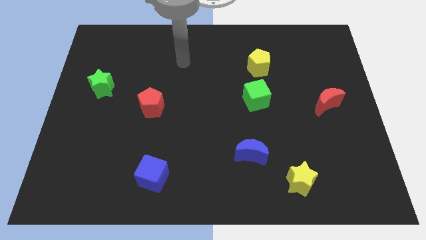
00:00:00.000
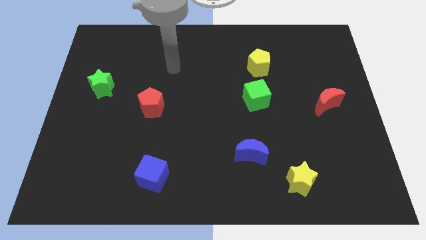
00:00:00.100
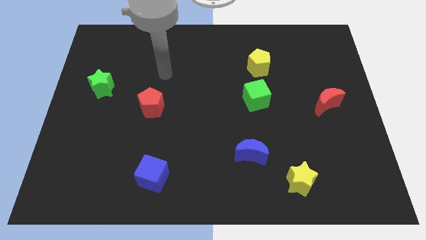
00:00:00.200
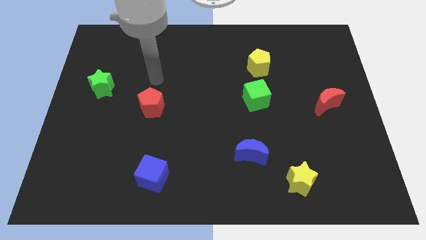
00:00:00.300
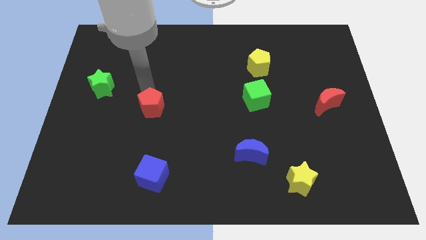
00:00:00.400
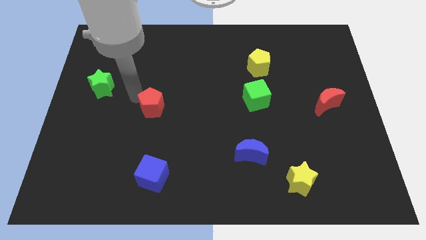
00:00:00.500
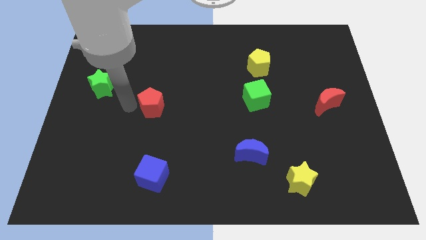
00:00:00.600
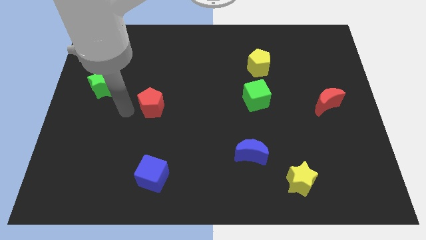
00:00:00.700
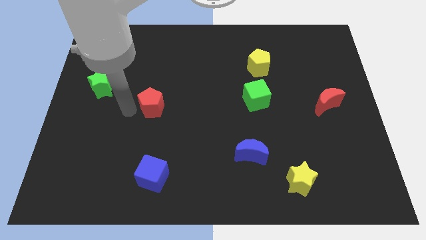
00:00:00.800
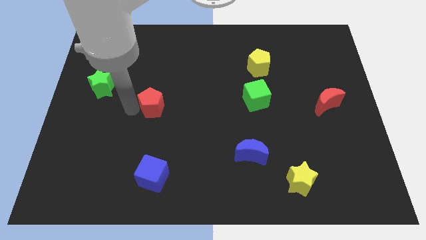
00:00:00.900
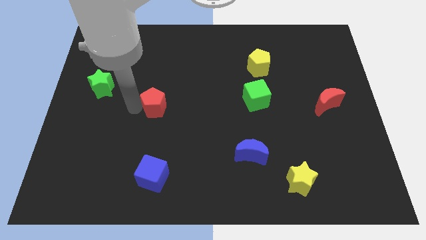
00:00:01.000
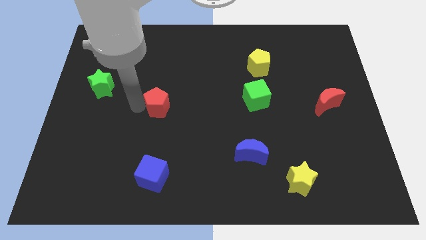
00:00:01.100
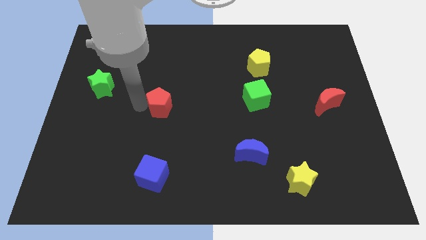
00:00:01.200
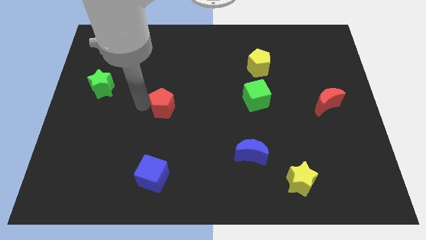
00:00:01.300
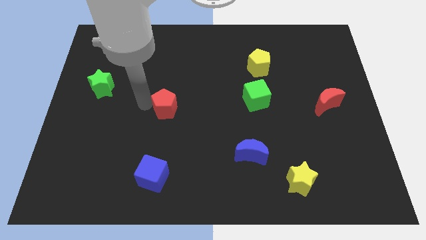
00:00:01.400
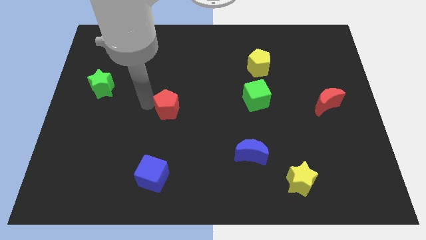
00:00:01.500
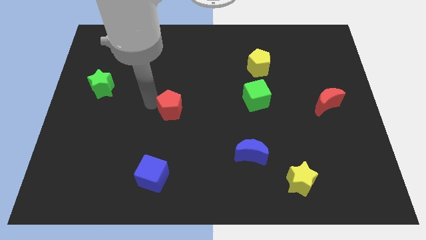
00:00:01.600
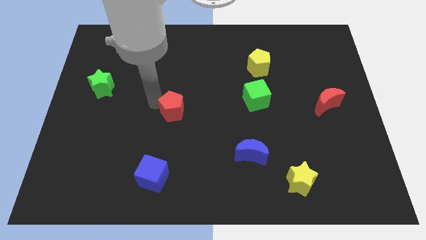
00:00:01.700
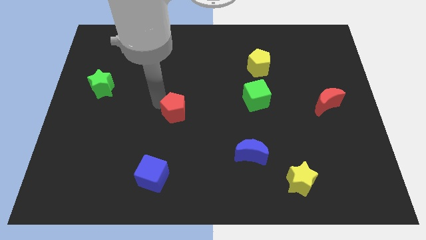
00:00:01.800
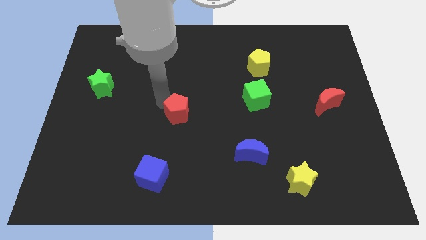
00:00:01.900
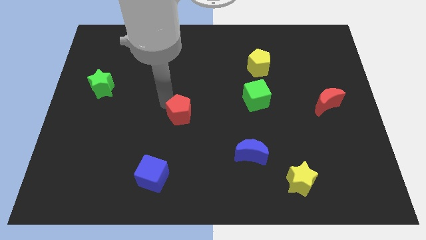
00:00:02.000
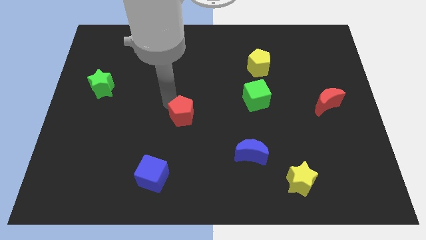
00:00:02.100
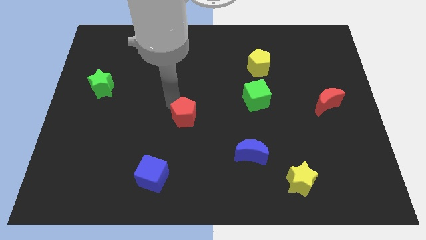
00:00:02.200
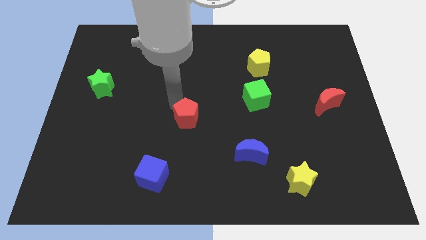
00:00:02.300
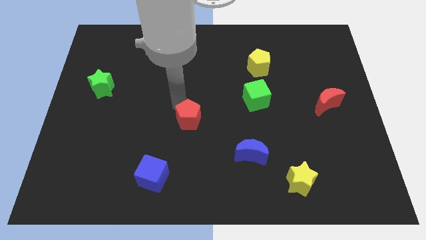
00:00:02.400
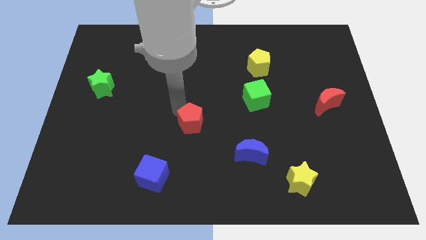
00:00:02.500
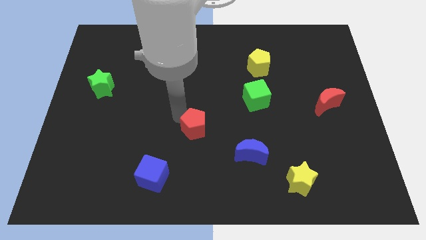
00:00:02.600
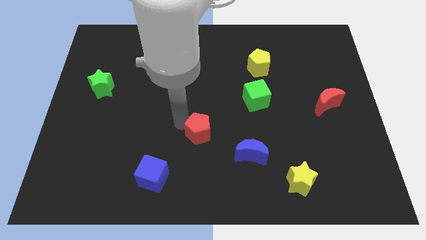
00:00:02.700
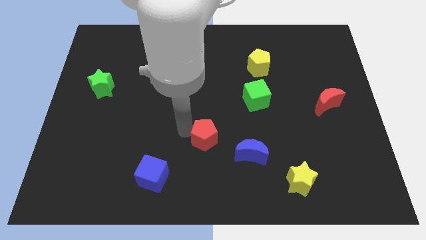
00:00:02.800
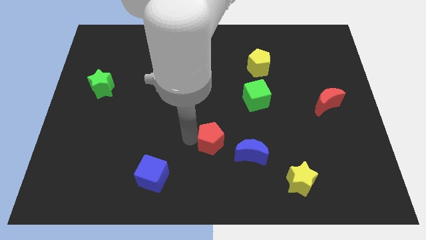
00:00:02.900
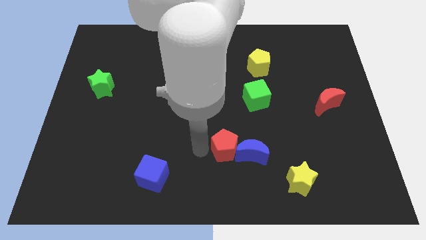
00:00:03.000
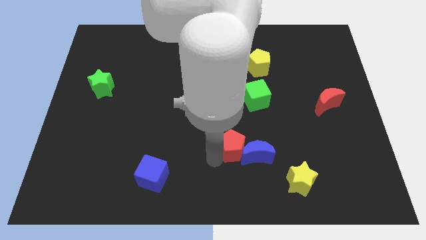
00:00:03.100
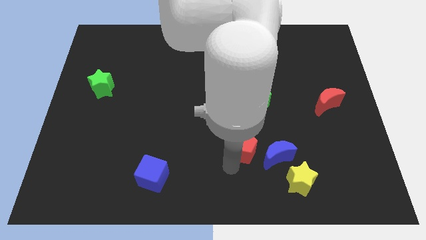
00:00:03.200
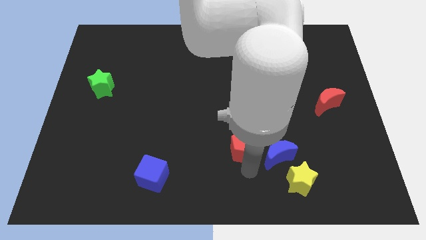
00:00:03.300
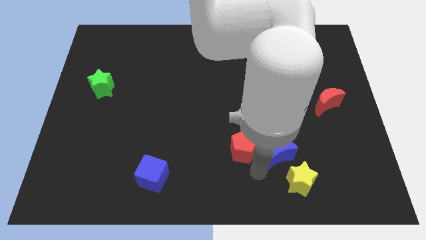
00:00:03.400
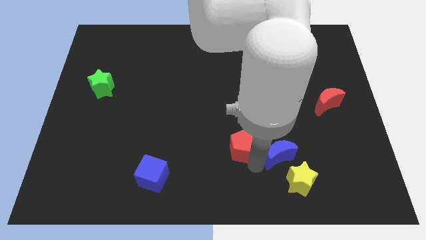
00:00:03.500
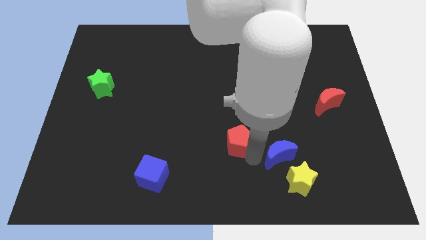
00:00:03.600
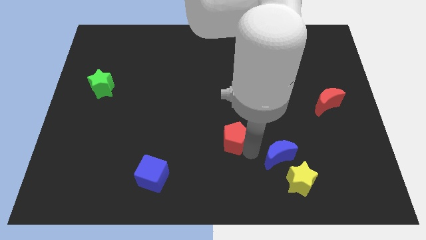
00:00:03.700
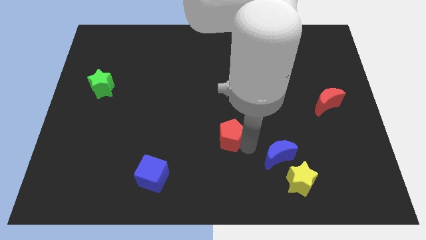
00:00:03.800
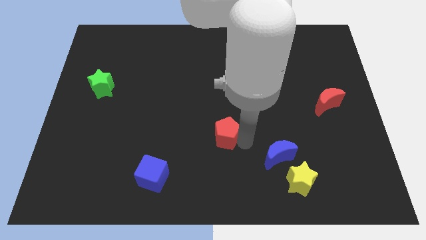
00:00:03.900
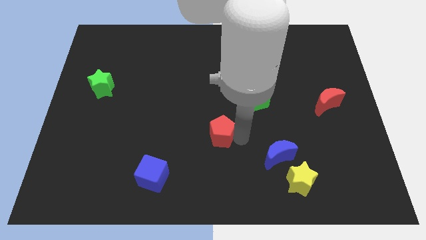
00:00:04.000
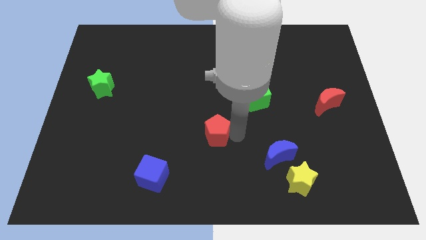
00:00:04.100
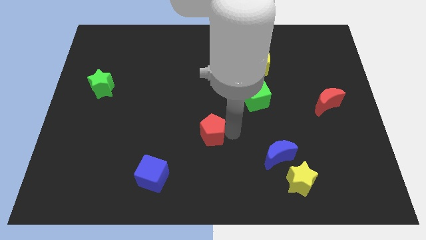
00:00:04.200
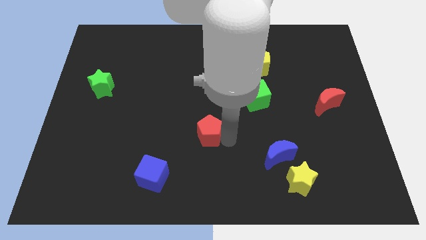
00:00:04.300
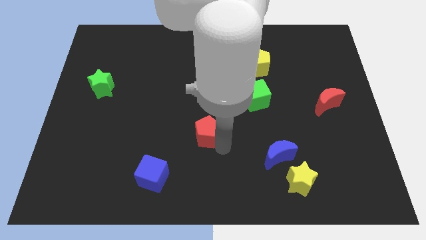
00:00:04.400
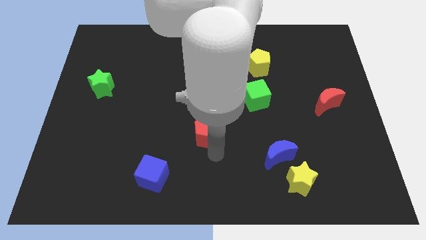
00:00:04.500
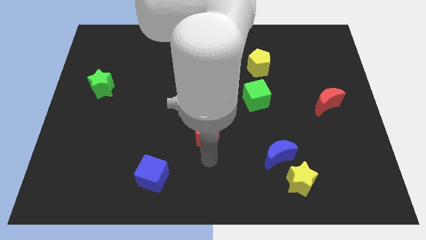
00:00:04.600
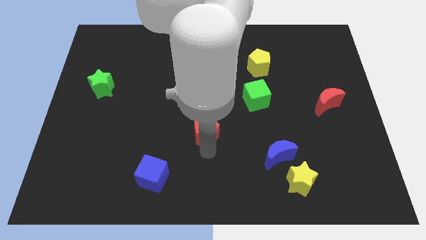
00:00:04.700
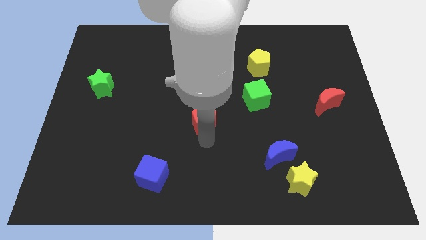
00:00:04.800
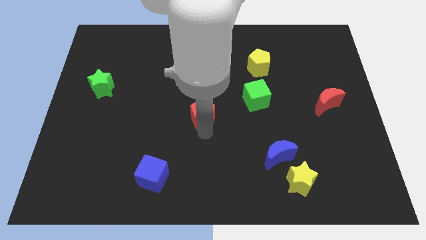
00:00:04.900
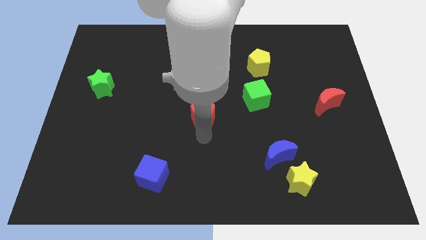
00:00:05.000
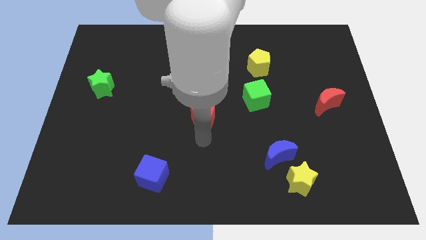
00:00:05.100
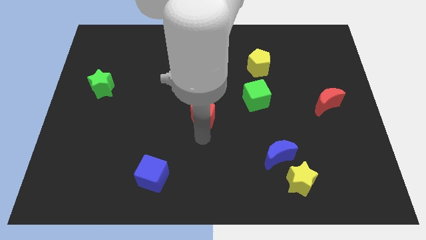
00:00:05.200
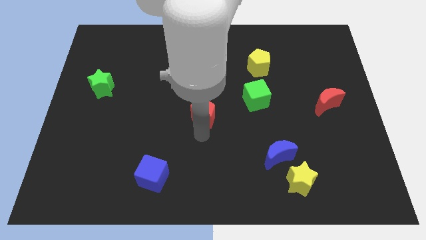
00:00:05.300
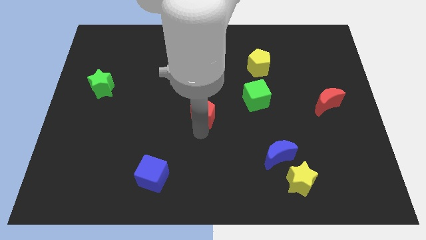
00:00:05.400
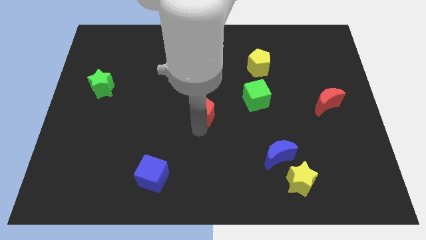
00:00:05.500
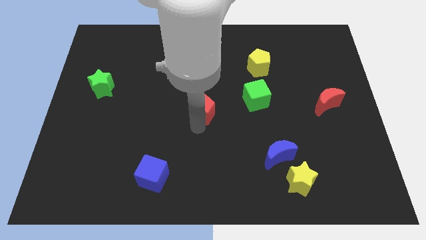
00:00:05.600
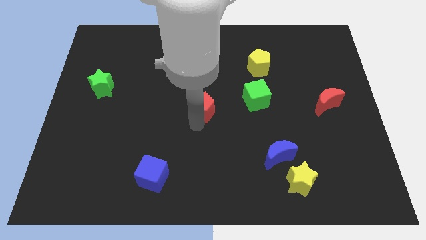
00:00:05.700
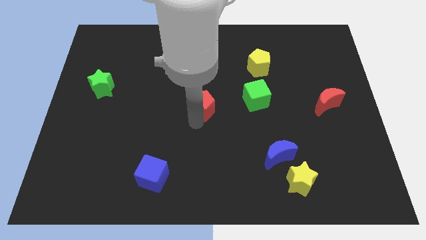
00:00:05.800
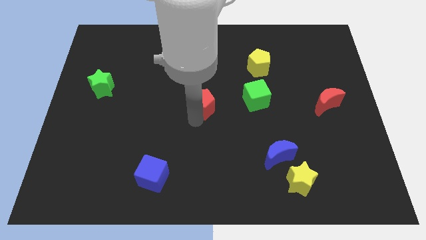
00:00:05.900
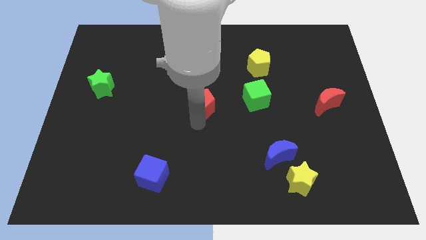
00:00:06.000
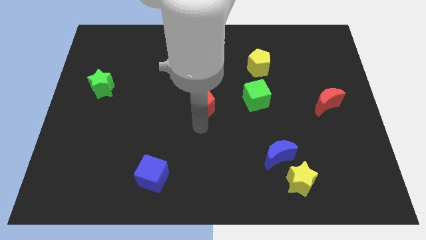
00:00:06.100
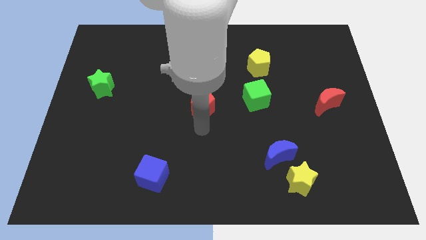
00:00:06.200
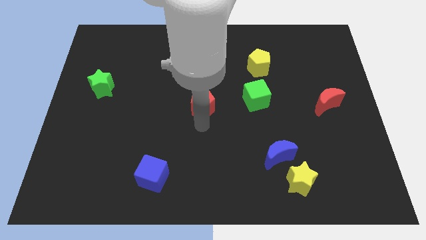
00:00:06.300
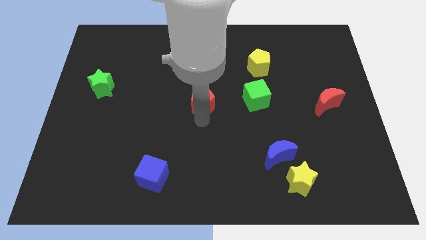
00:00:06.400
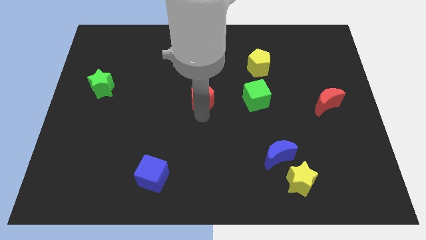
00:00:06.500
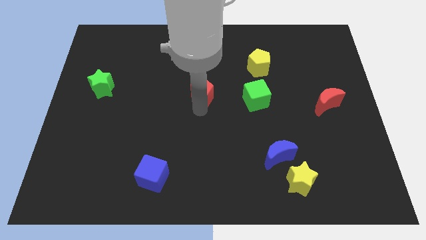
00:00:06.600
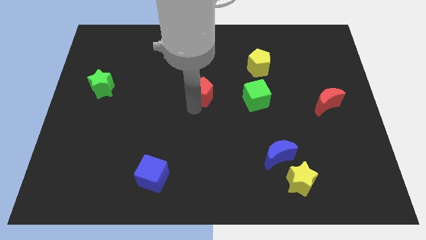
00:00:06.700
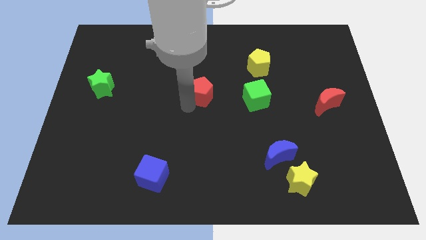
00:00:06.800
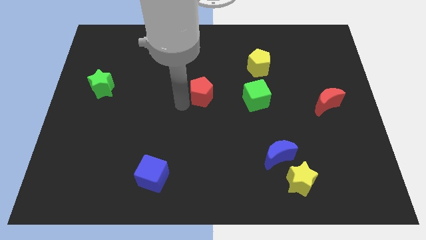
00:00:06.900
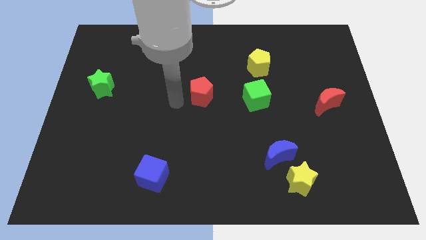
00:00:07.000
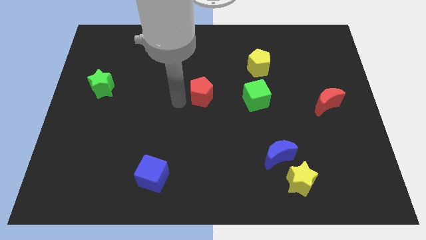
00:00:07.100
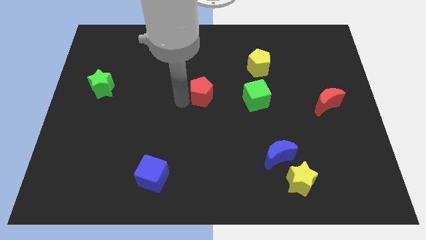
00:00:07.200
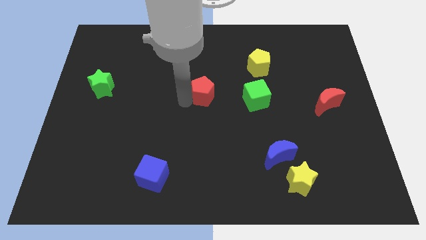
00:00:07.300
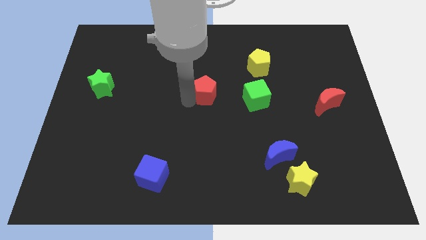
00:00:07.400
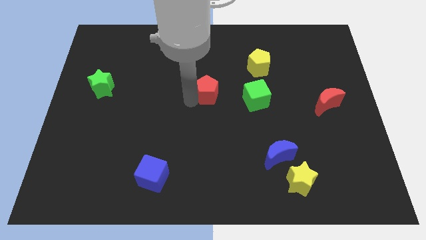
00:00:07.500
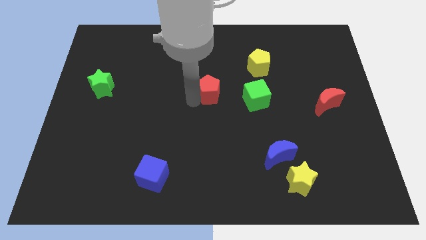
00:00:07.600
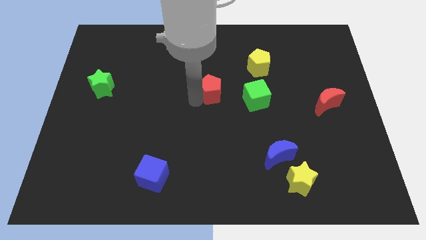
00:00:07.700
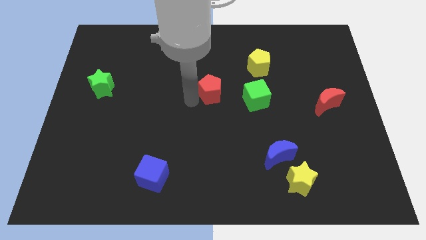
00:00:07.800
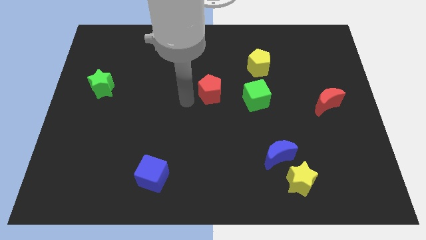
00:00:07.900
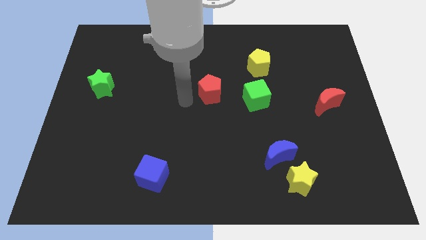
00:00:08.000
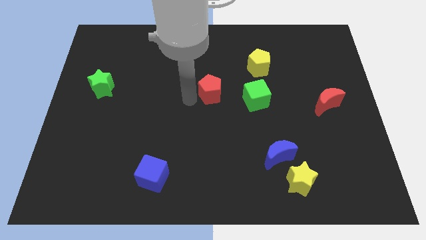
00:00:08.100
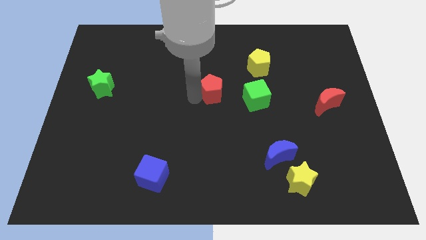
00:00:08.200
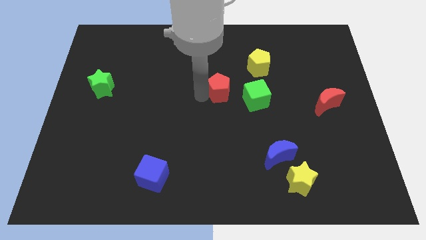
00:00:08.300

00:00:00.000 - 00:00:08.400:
move the red pentagon diagonally up and to the left of the green cube
